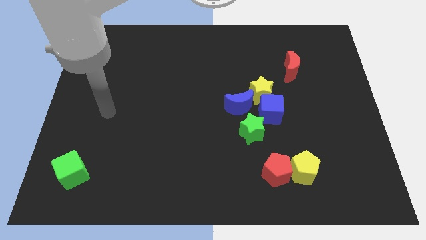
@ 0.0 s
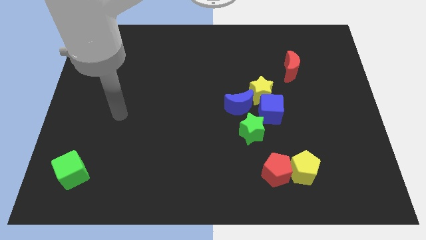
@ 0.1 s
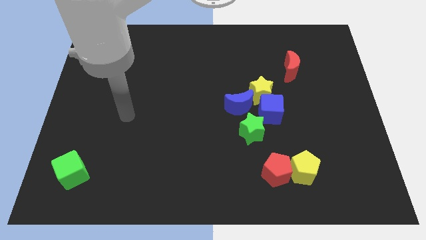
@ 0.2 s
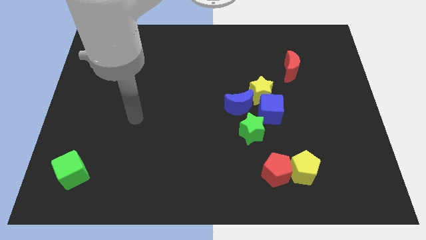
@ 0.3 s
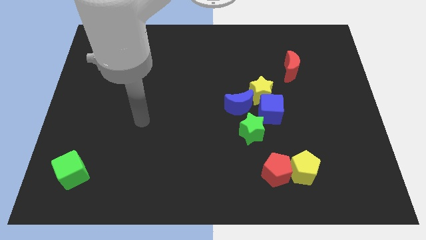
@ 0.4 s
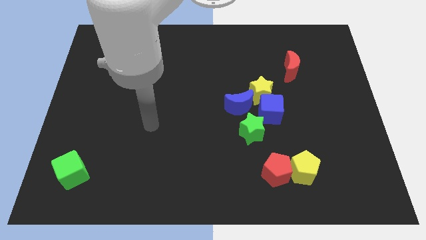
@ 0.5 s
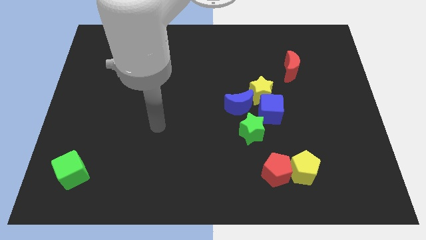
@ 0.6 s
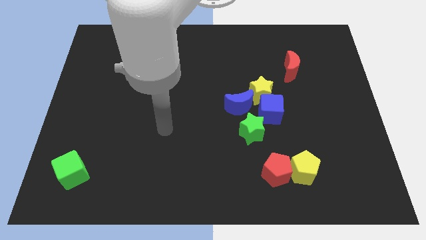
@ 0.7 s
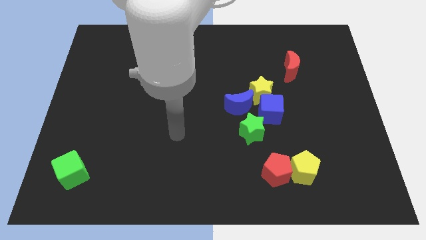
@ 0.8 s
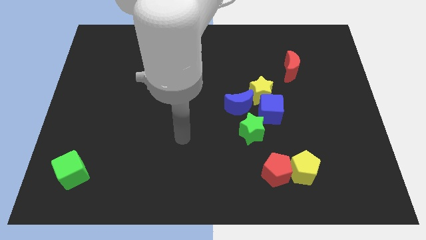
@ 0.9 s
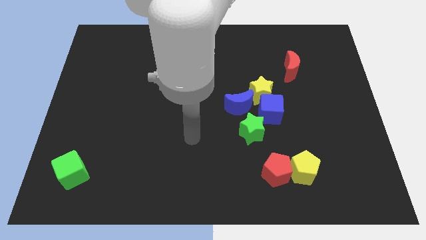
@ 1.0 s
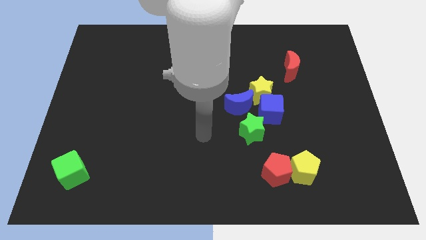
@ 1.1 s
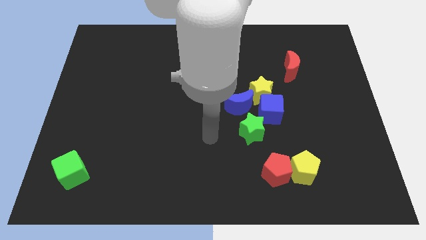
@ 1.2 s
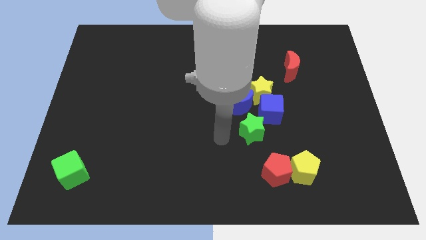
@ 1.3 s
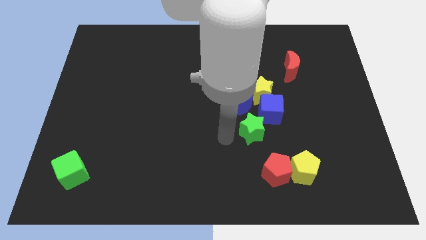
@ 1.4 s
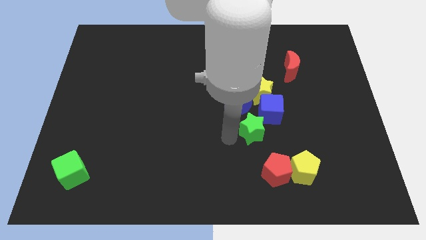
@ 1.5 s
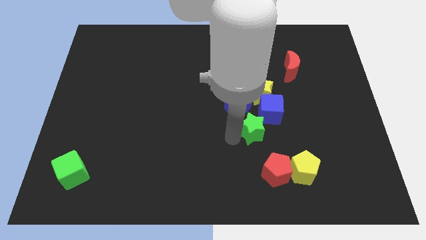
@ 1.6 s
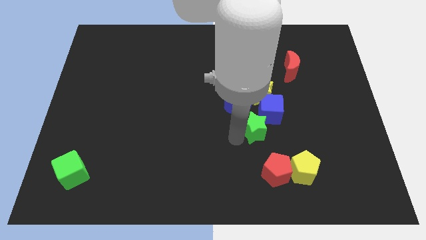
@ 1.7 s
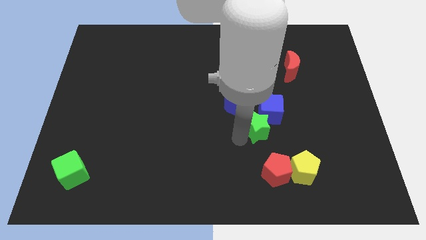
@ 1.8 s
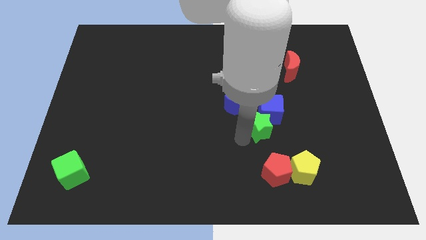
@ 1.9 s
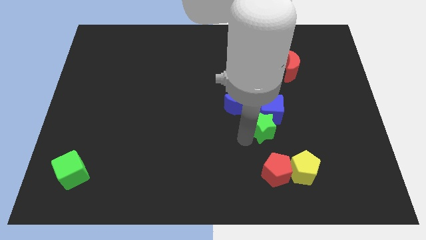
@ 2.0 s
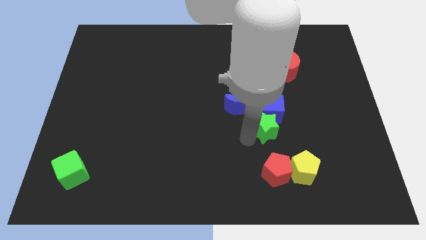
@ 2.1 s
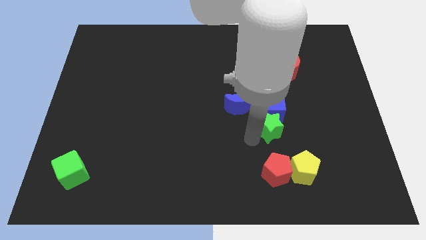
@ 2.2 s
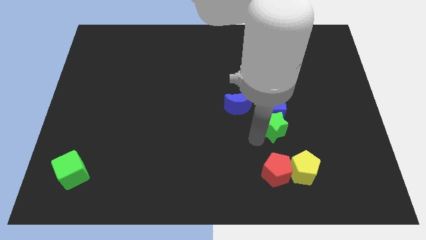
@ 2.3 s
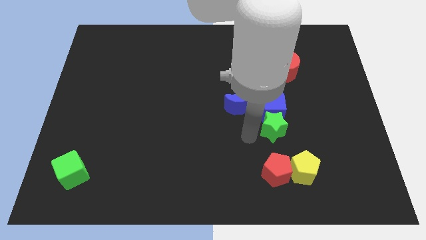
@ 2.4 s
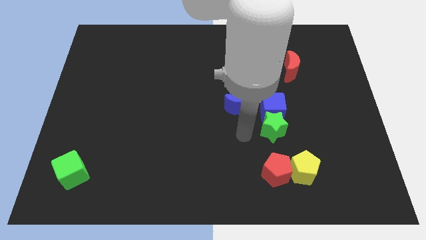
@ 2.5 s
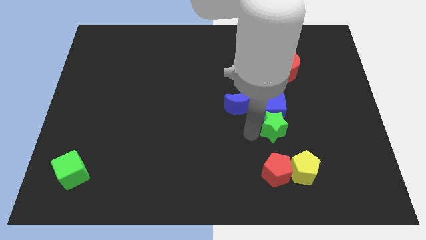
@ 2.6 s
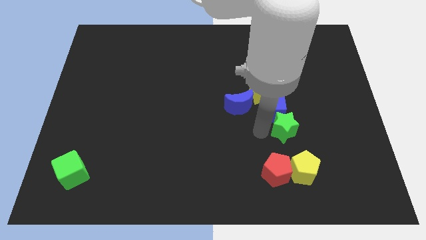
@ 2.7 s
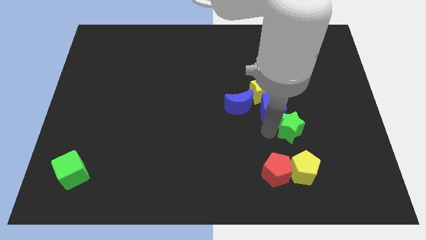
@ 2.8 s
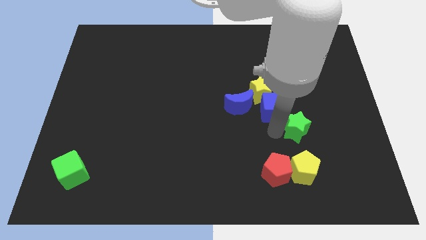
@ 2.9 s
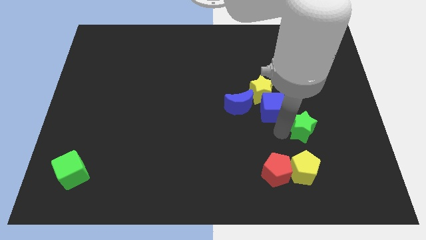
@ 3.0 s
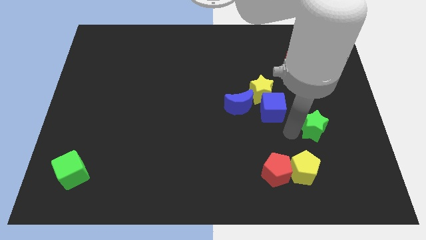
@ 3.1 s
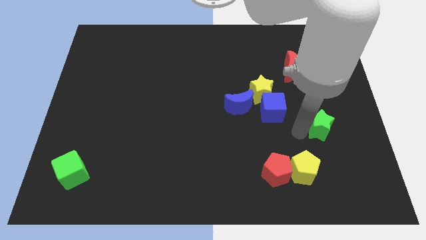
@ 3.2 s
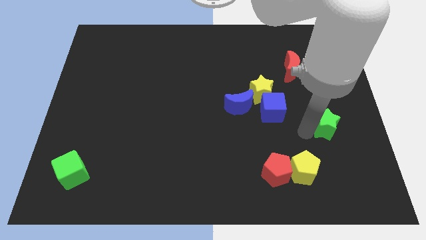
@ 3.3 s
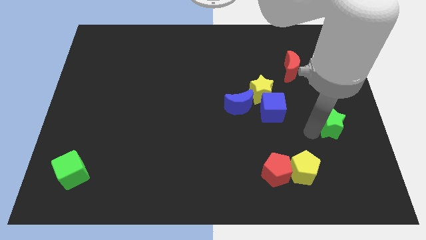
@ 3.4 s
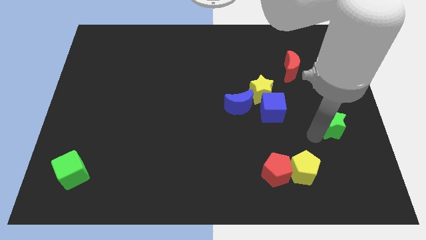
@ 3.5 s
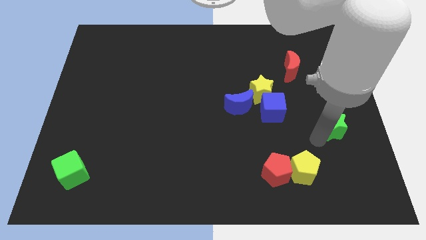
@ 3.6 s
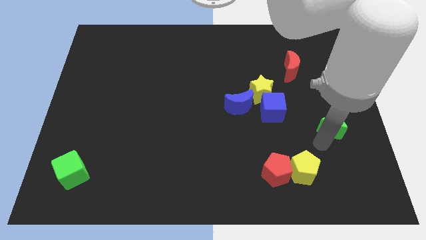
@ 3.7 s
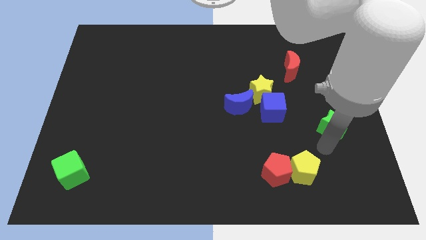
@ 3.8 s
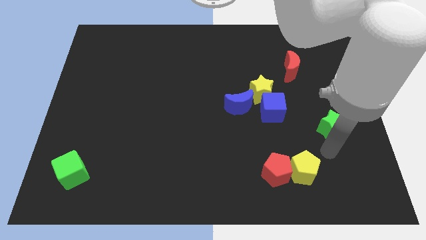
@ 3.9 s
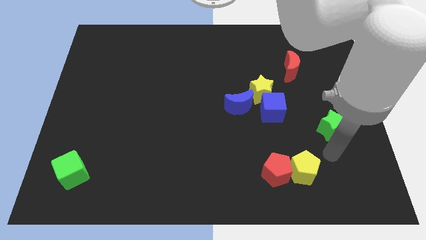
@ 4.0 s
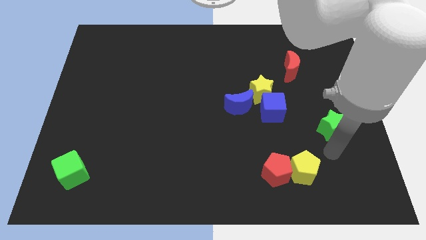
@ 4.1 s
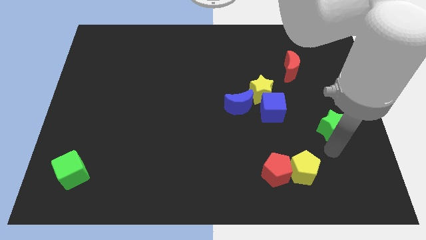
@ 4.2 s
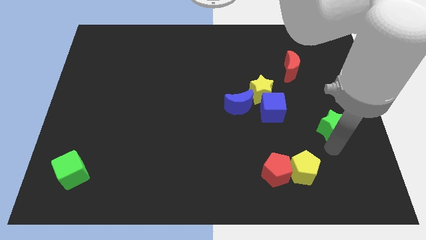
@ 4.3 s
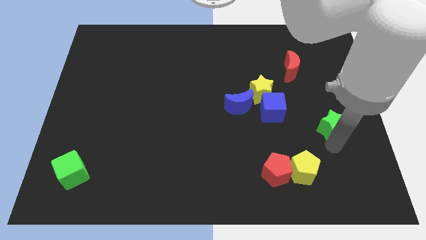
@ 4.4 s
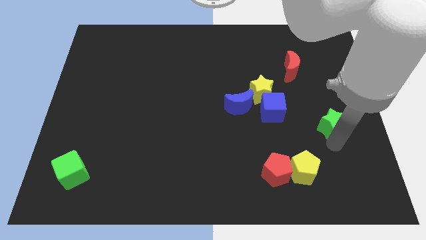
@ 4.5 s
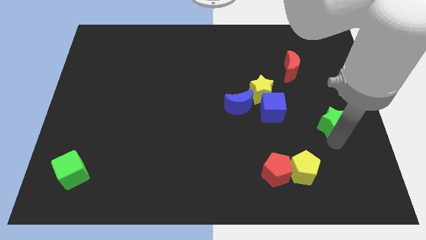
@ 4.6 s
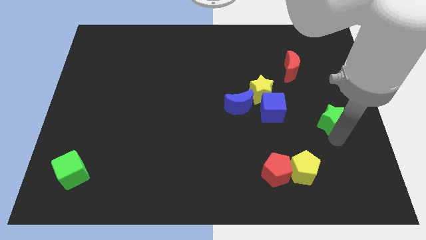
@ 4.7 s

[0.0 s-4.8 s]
push the green star to the right side

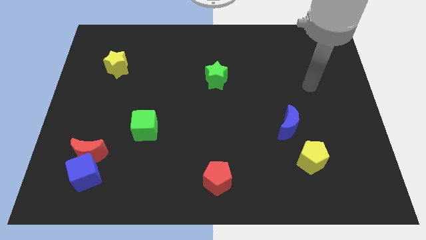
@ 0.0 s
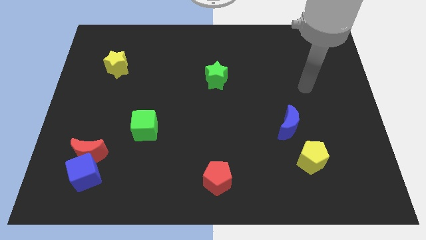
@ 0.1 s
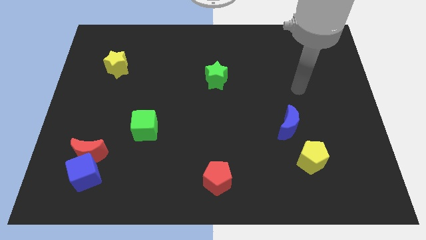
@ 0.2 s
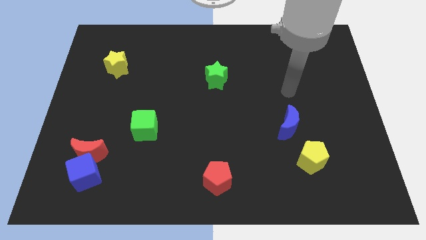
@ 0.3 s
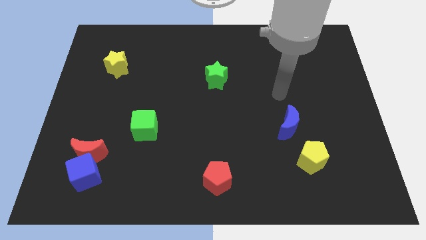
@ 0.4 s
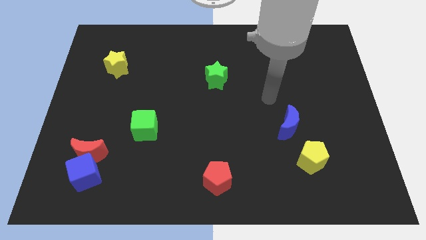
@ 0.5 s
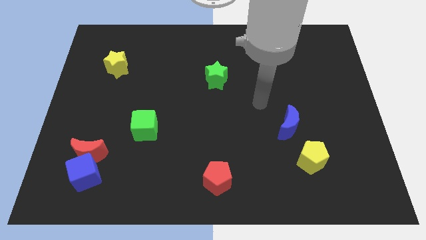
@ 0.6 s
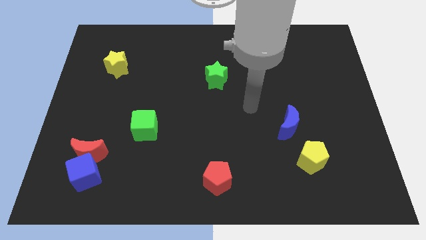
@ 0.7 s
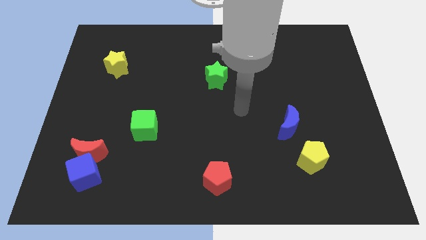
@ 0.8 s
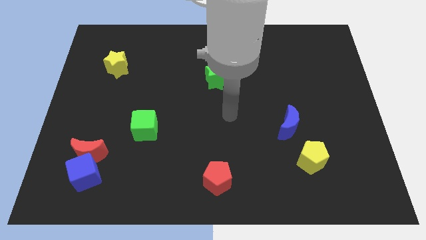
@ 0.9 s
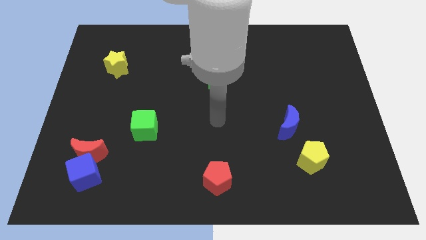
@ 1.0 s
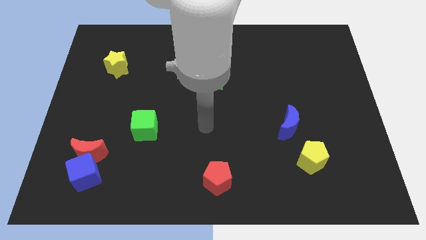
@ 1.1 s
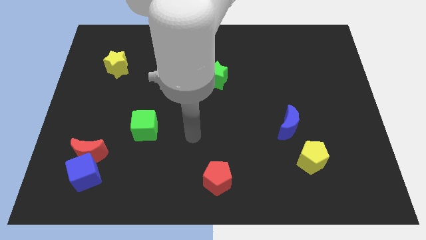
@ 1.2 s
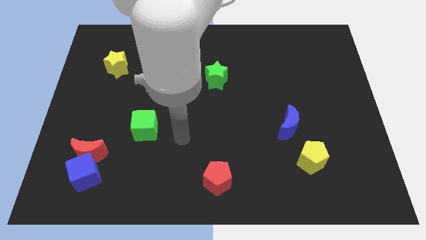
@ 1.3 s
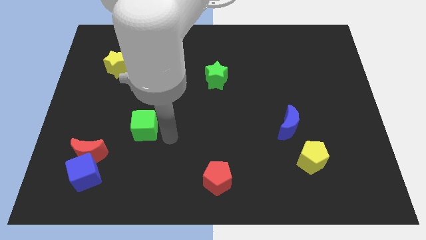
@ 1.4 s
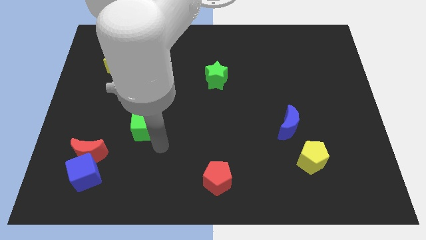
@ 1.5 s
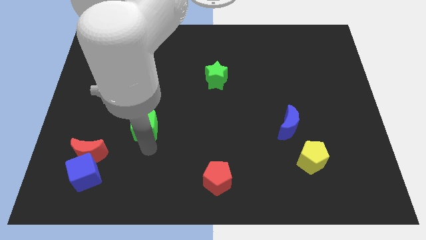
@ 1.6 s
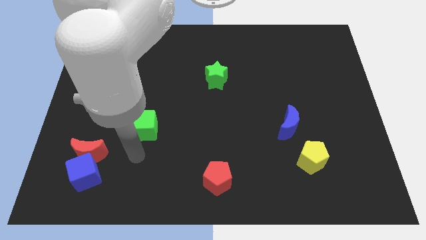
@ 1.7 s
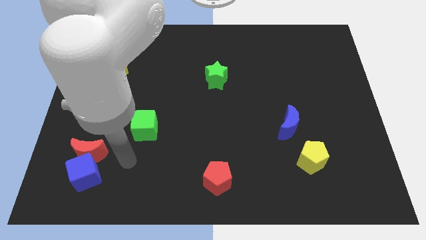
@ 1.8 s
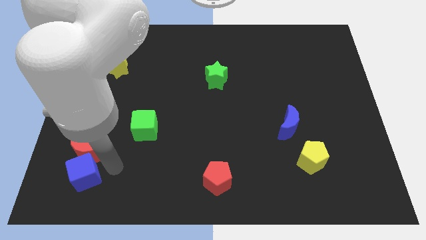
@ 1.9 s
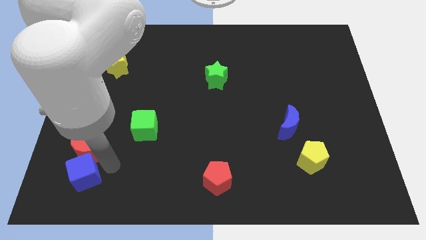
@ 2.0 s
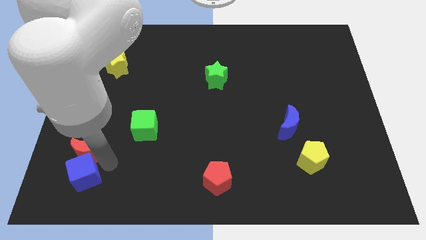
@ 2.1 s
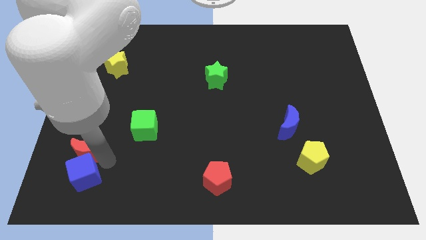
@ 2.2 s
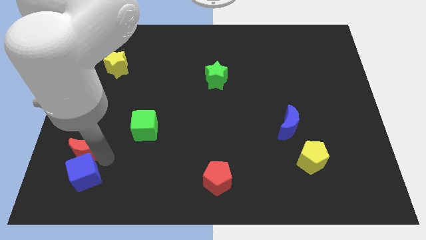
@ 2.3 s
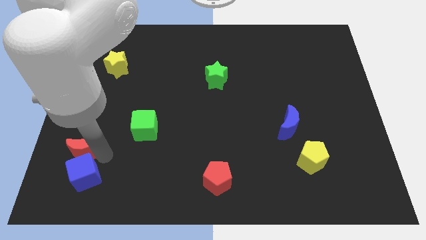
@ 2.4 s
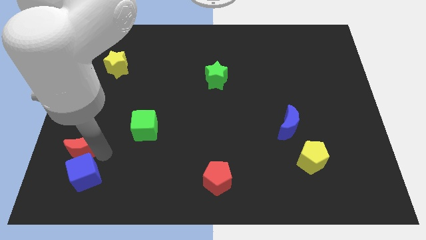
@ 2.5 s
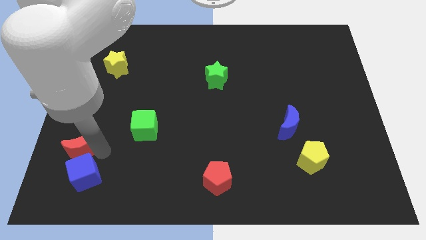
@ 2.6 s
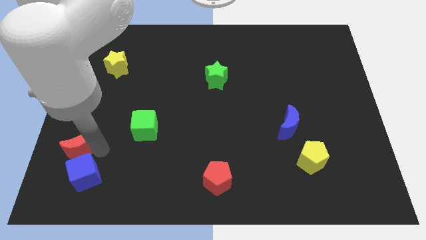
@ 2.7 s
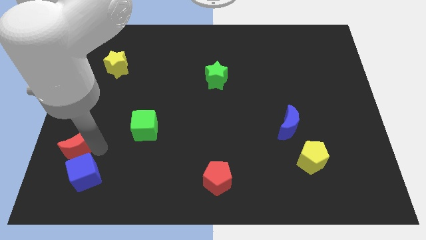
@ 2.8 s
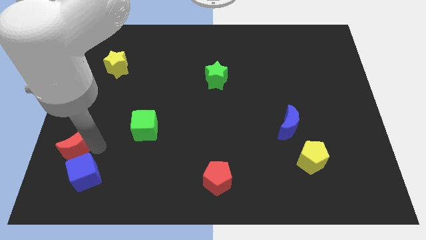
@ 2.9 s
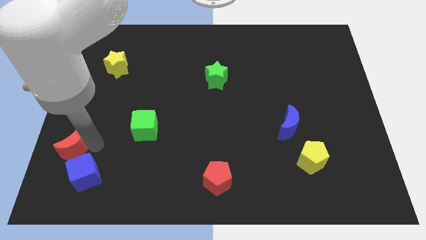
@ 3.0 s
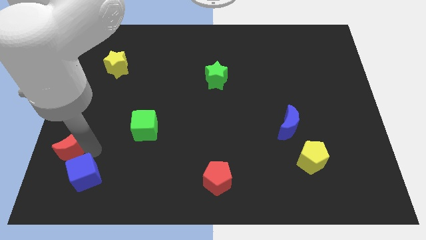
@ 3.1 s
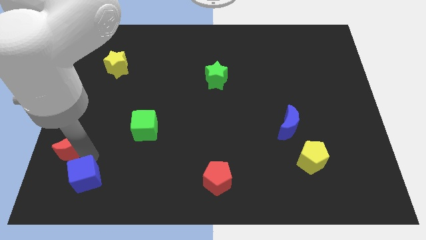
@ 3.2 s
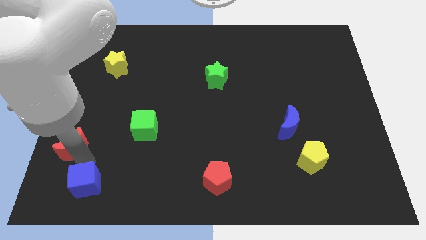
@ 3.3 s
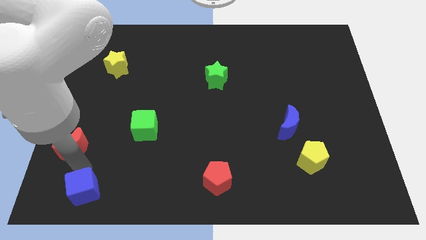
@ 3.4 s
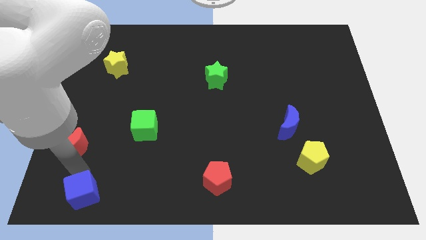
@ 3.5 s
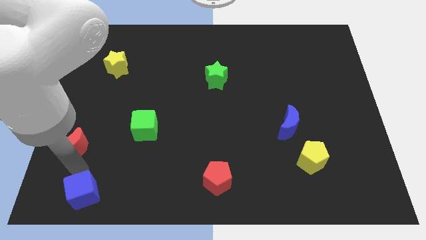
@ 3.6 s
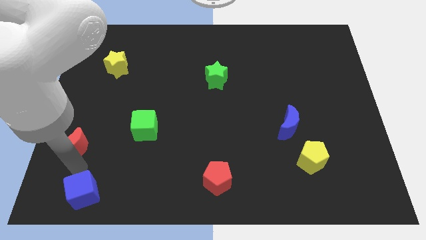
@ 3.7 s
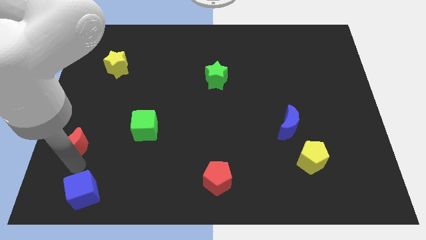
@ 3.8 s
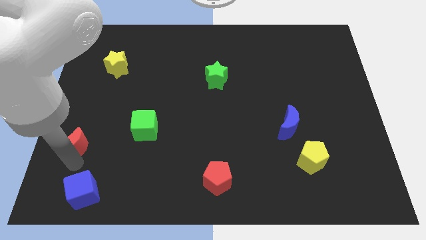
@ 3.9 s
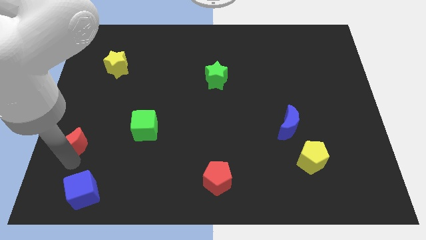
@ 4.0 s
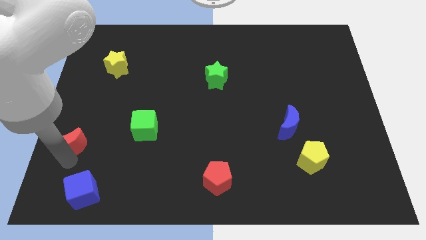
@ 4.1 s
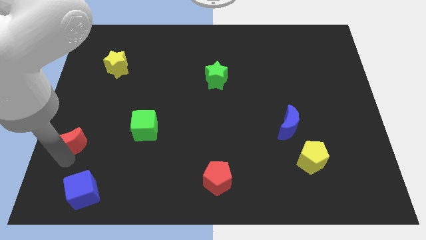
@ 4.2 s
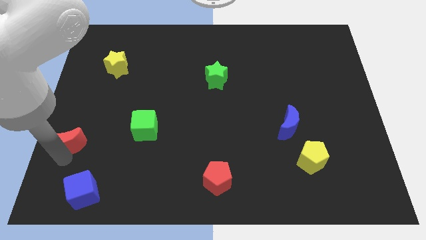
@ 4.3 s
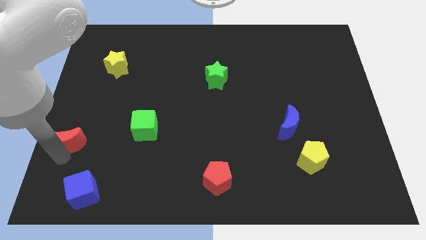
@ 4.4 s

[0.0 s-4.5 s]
push the red moon to the left side
